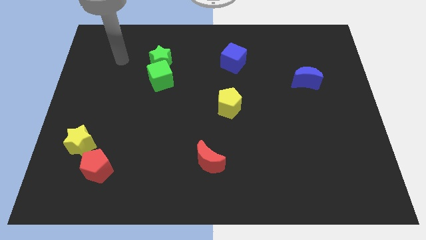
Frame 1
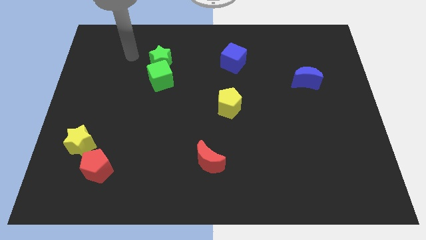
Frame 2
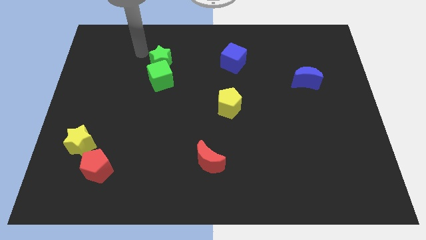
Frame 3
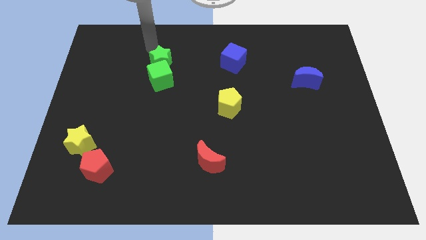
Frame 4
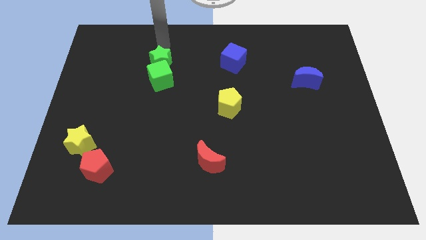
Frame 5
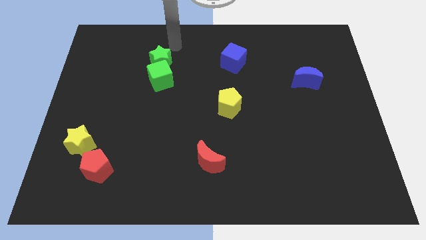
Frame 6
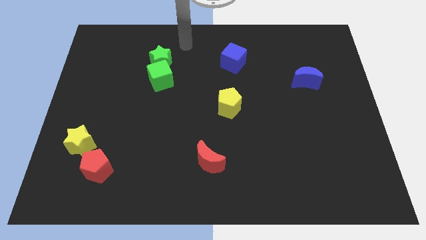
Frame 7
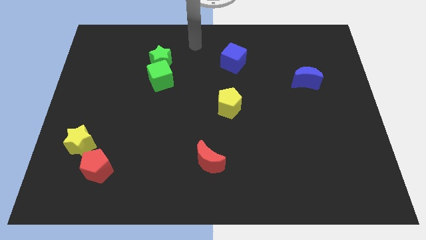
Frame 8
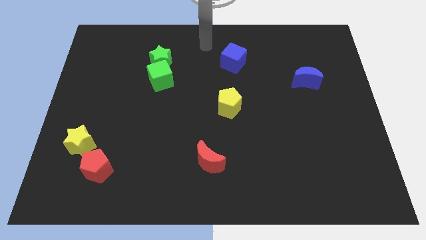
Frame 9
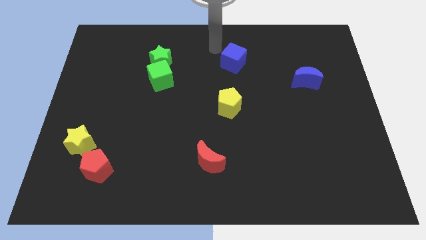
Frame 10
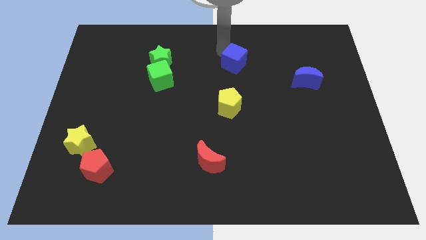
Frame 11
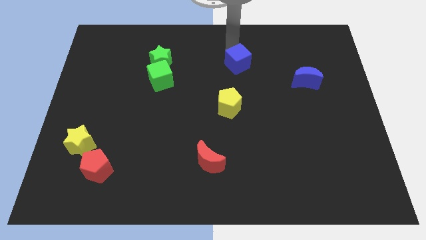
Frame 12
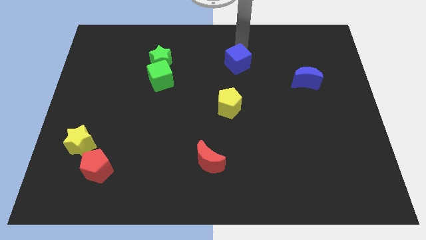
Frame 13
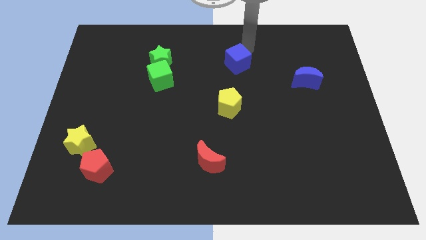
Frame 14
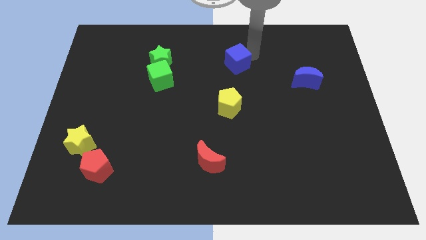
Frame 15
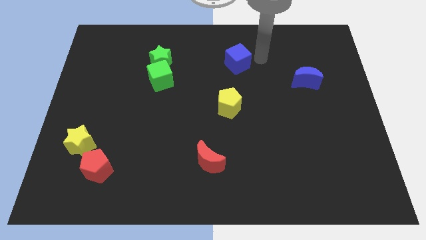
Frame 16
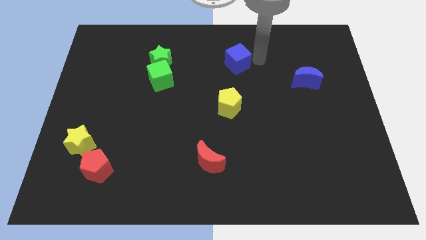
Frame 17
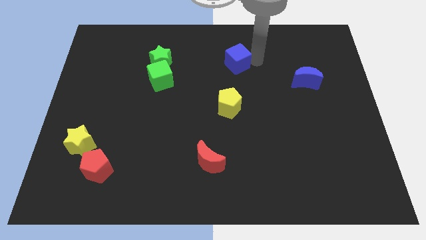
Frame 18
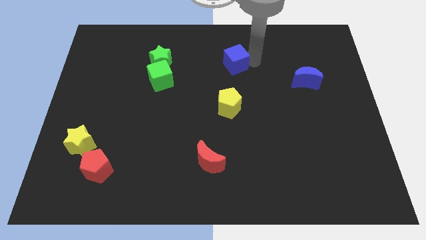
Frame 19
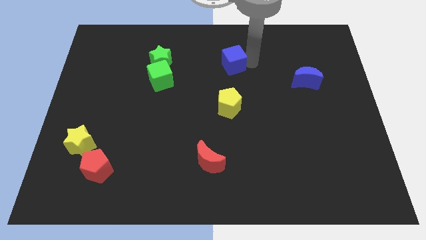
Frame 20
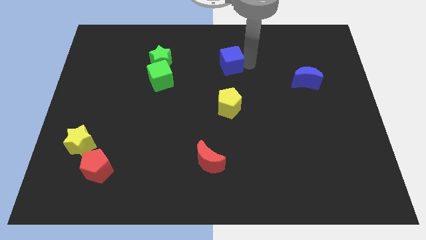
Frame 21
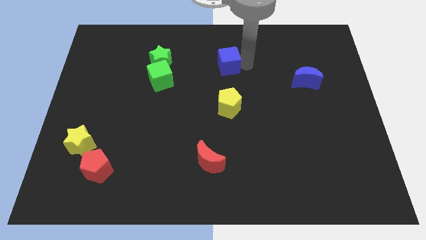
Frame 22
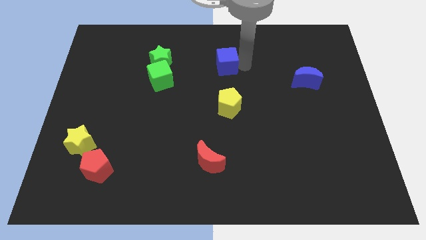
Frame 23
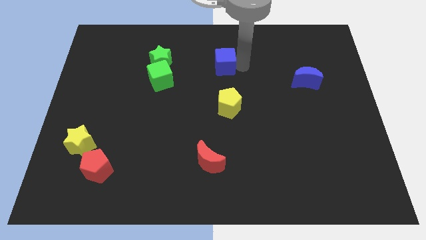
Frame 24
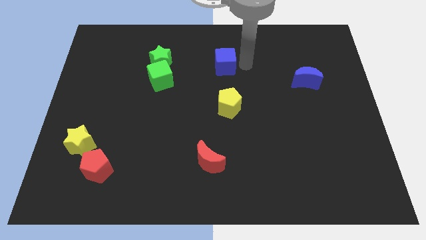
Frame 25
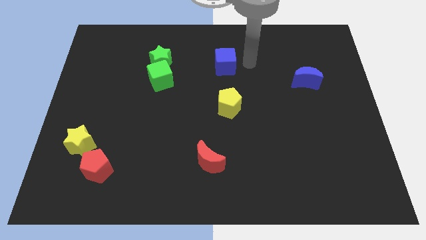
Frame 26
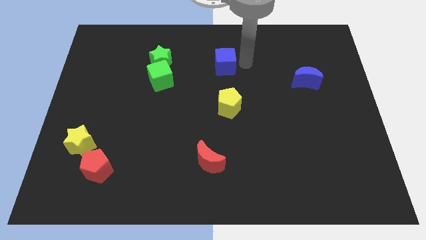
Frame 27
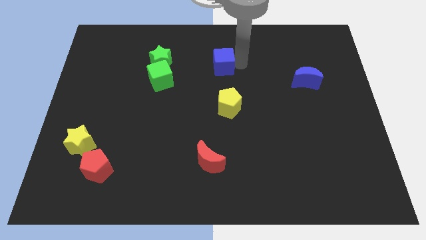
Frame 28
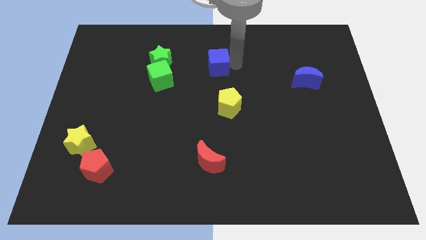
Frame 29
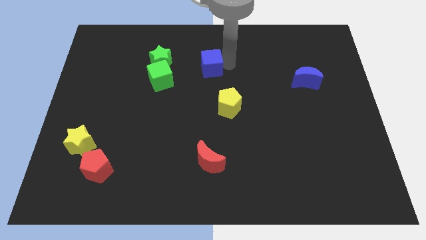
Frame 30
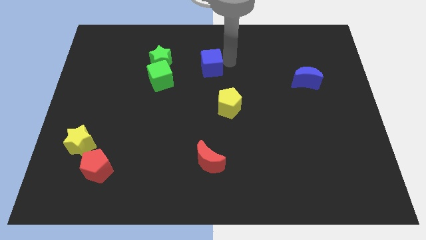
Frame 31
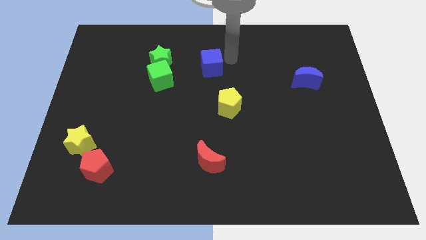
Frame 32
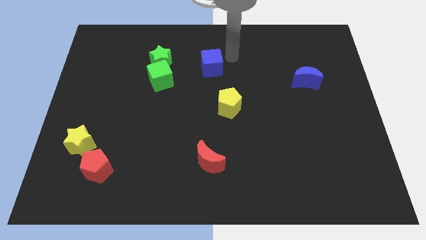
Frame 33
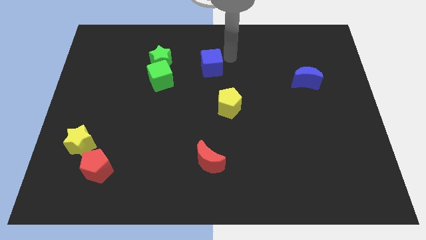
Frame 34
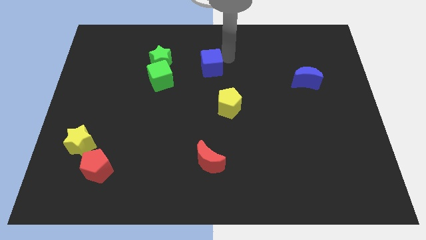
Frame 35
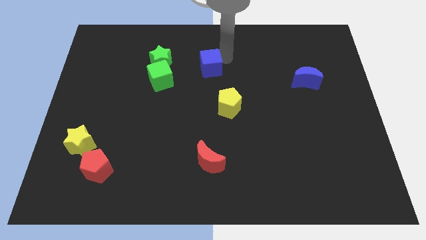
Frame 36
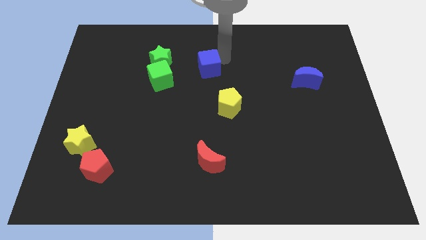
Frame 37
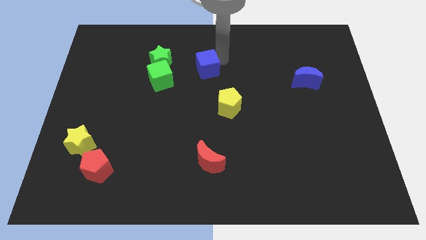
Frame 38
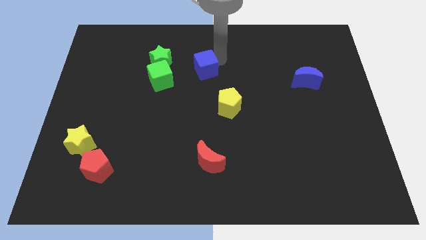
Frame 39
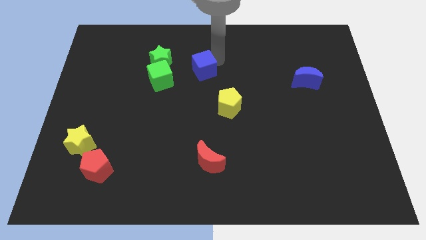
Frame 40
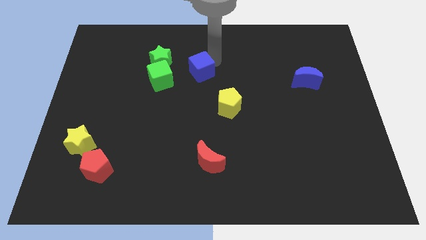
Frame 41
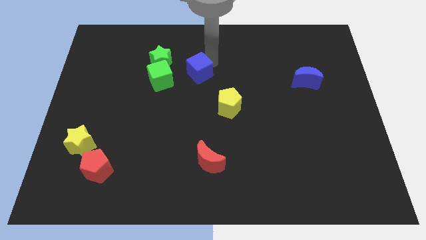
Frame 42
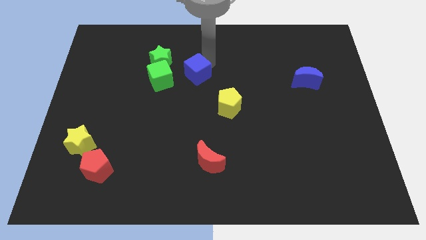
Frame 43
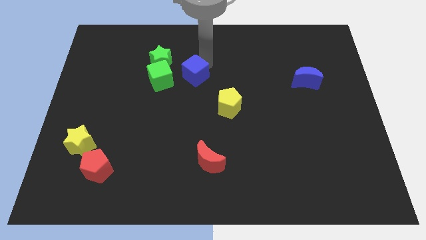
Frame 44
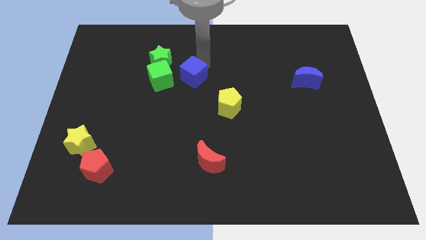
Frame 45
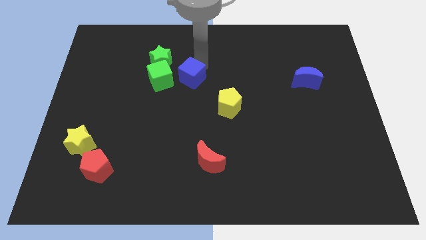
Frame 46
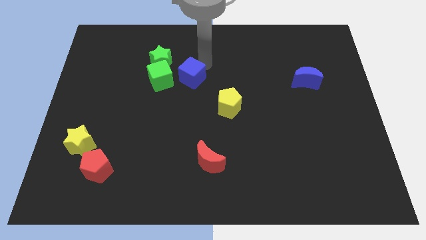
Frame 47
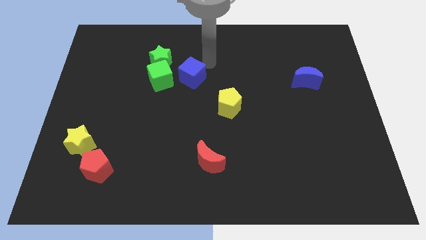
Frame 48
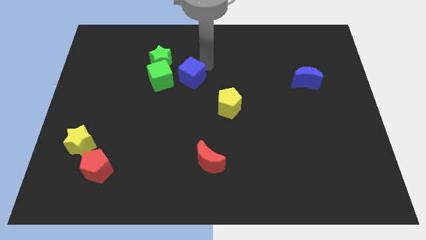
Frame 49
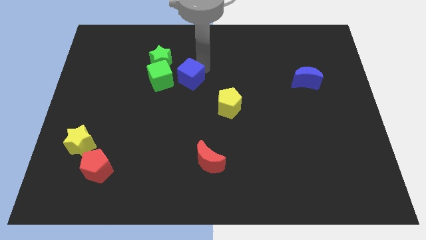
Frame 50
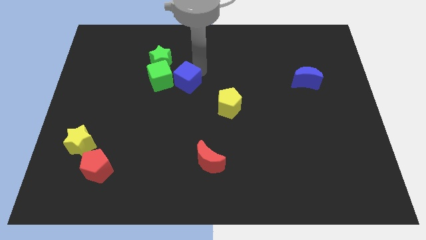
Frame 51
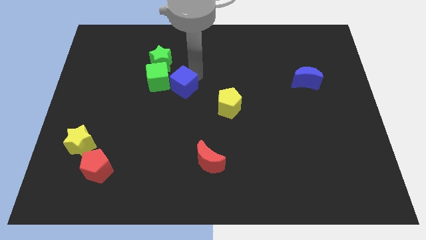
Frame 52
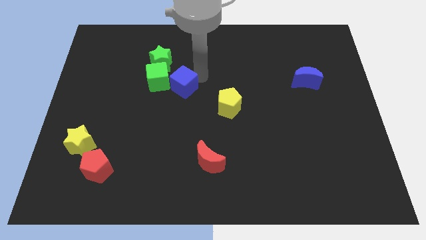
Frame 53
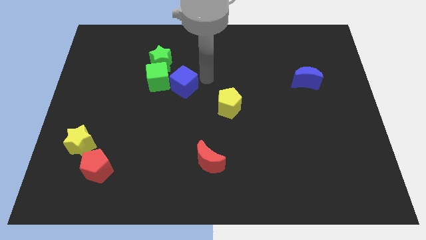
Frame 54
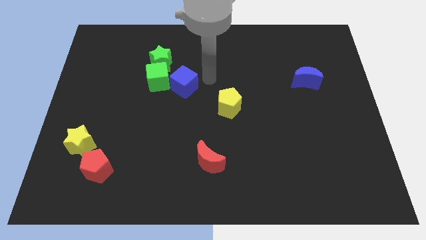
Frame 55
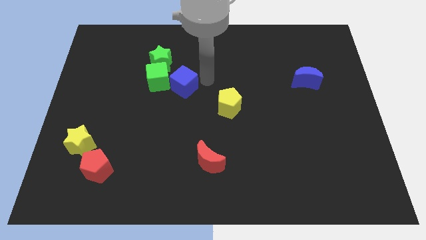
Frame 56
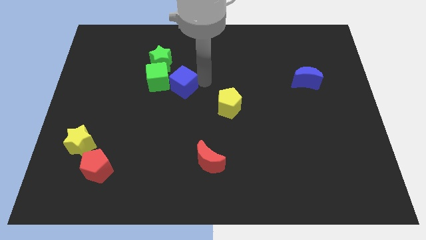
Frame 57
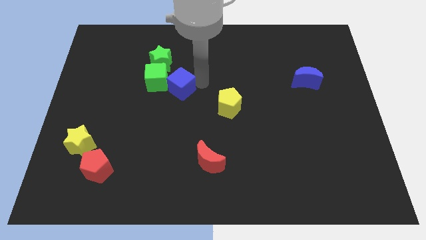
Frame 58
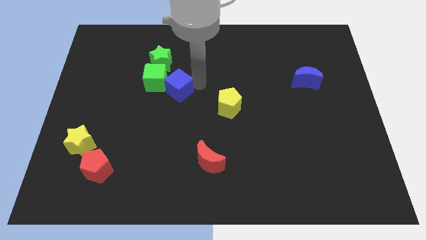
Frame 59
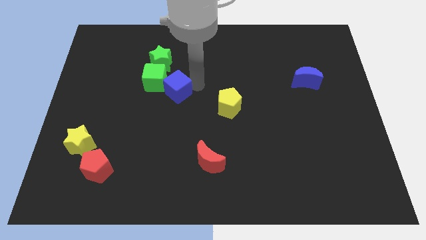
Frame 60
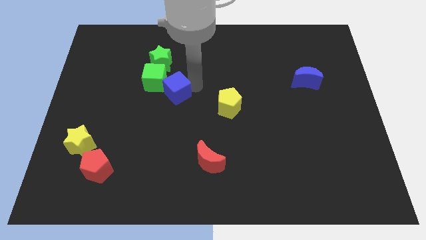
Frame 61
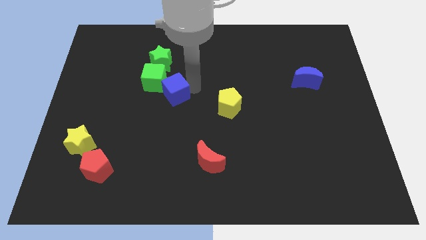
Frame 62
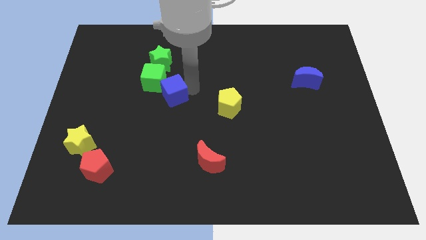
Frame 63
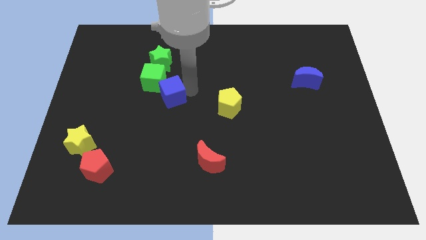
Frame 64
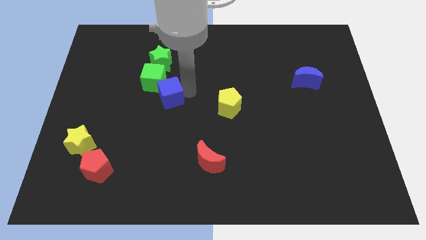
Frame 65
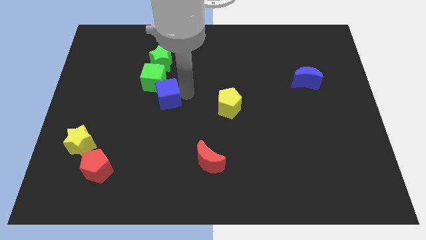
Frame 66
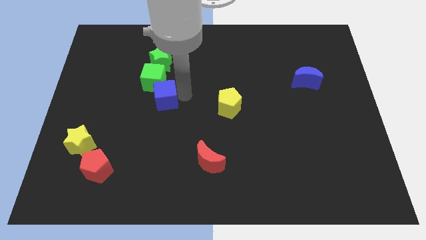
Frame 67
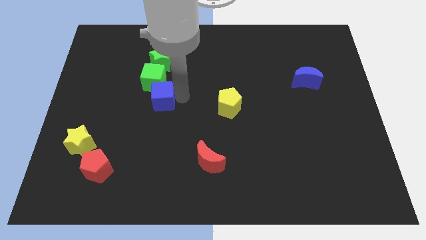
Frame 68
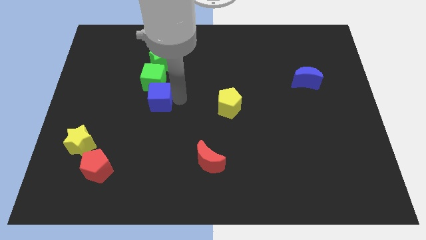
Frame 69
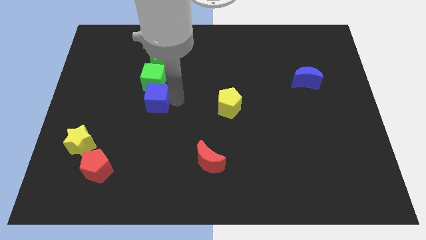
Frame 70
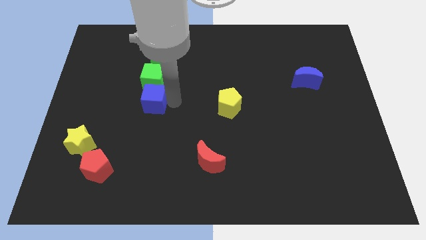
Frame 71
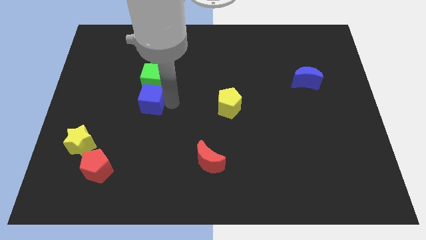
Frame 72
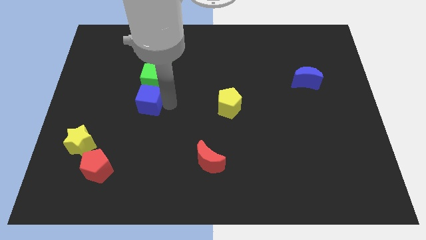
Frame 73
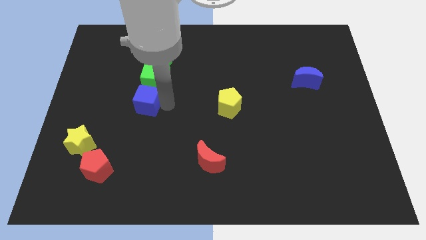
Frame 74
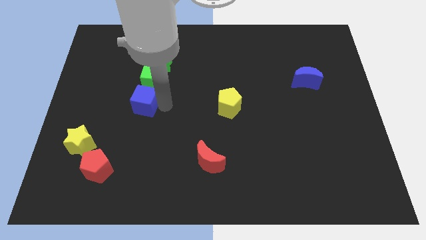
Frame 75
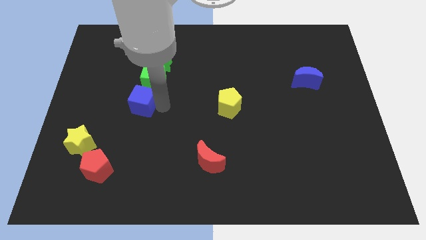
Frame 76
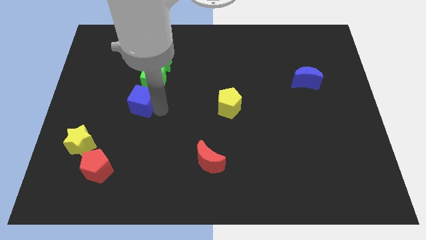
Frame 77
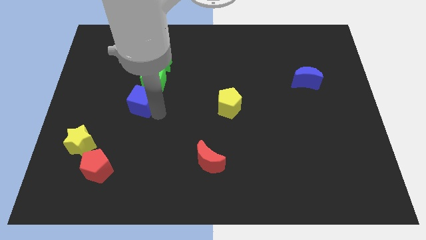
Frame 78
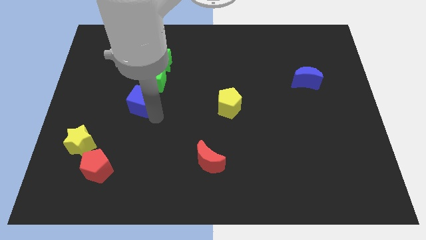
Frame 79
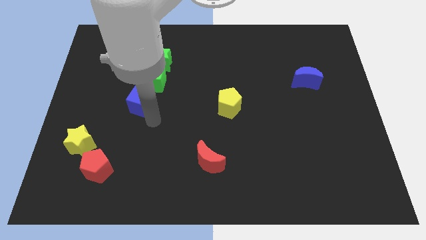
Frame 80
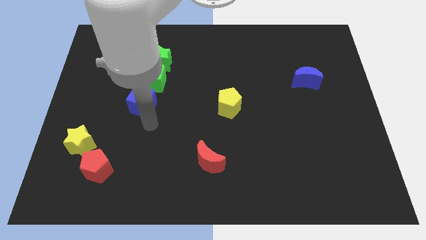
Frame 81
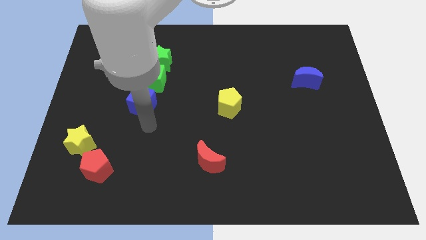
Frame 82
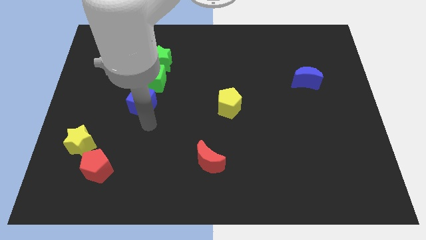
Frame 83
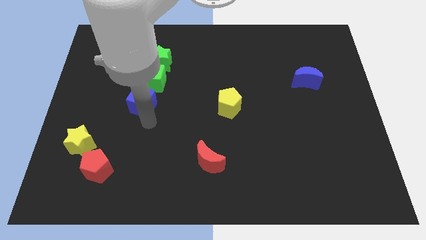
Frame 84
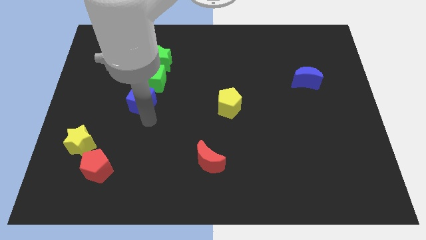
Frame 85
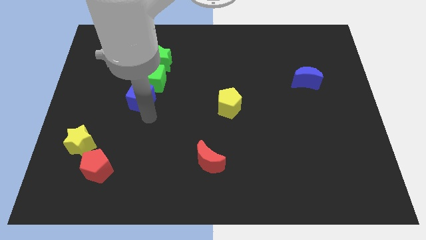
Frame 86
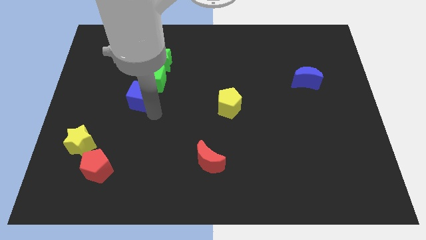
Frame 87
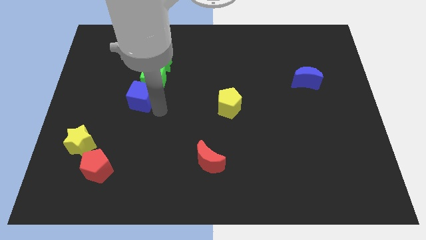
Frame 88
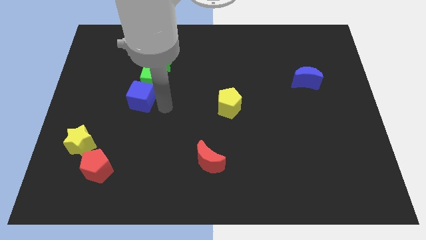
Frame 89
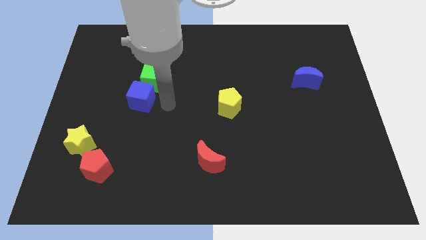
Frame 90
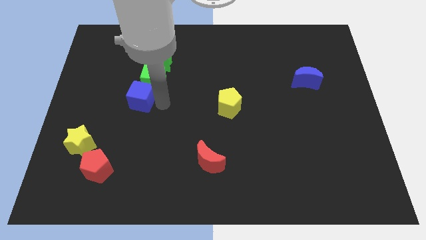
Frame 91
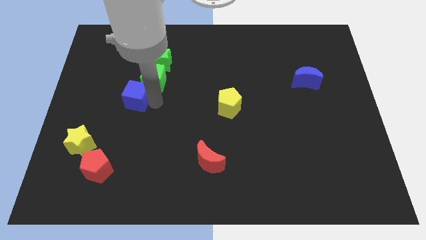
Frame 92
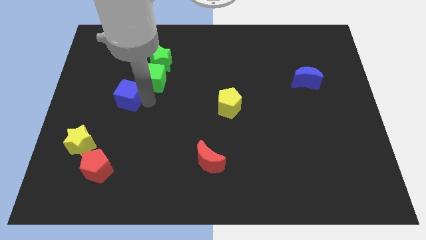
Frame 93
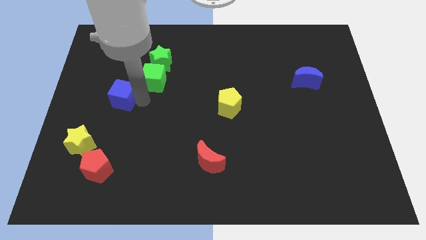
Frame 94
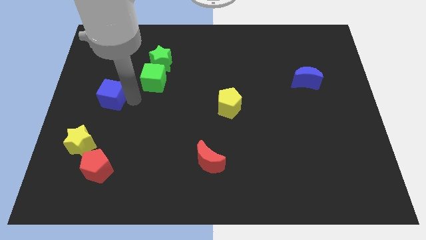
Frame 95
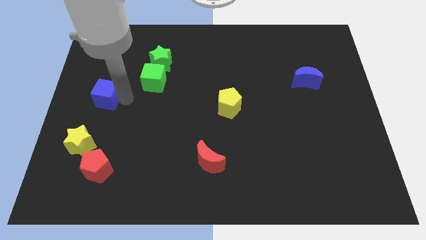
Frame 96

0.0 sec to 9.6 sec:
push the blue cube to the center left
